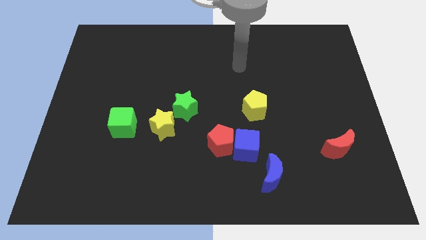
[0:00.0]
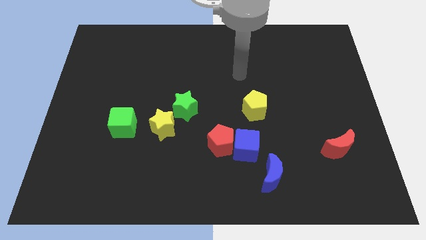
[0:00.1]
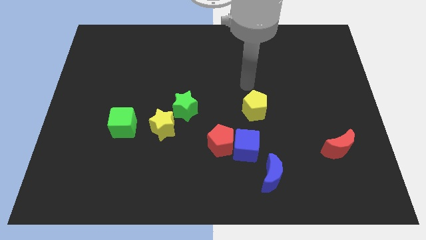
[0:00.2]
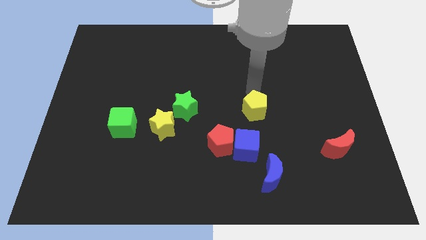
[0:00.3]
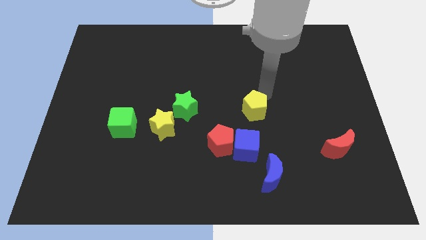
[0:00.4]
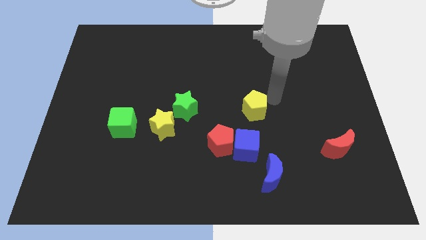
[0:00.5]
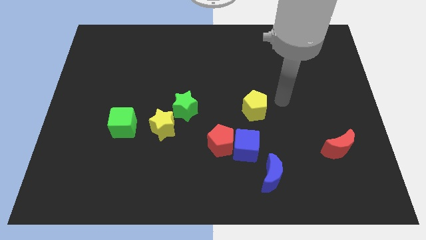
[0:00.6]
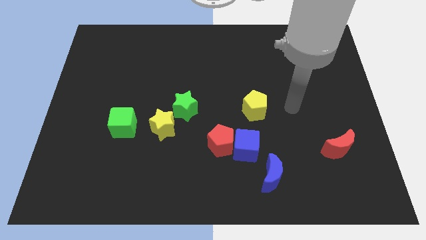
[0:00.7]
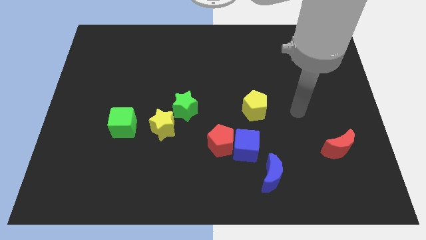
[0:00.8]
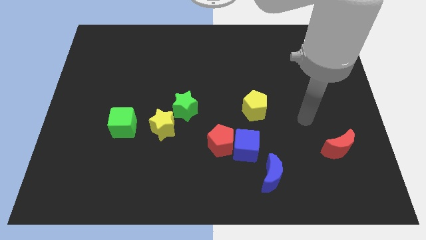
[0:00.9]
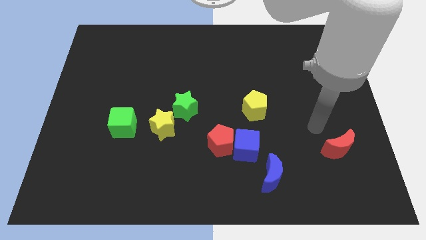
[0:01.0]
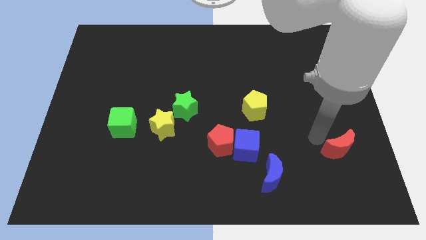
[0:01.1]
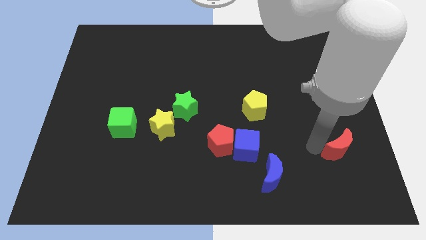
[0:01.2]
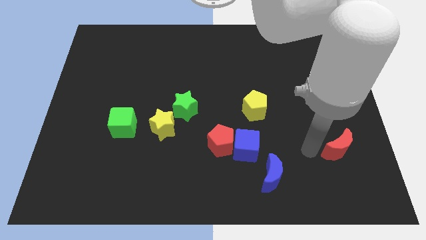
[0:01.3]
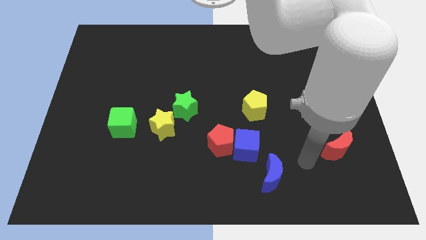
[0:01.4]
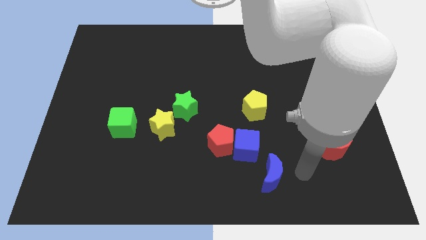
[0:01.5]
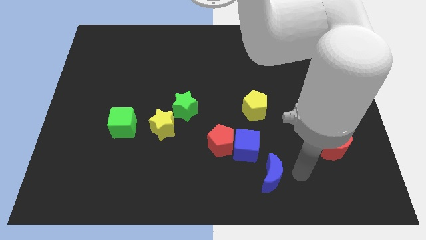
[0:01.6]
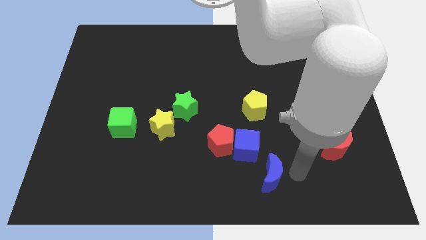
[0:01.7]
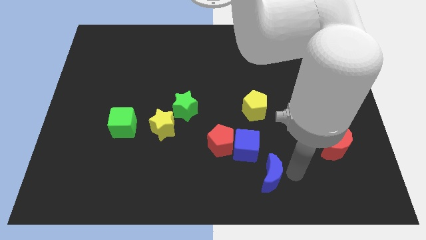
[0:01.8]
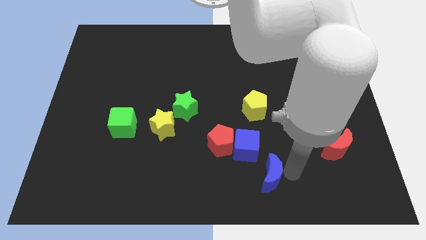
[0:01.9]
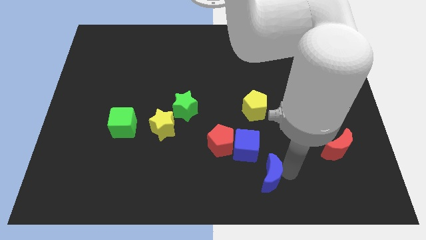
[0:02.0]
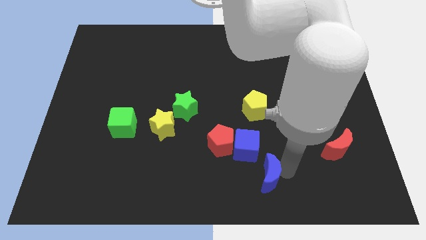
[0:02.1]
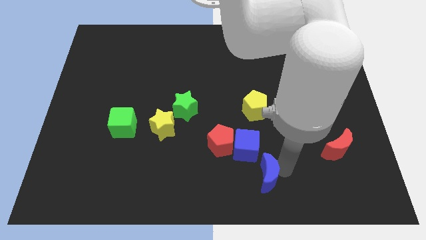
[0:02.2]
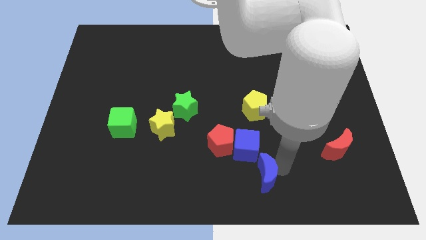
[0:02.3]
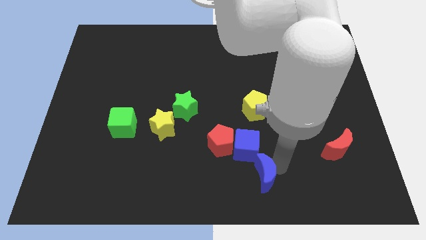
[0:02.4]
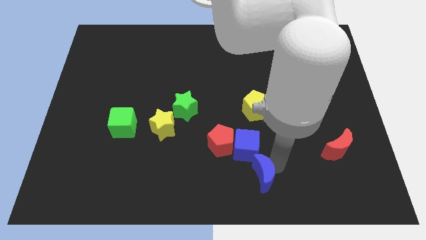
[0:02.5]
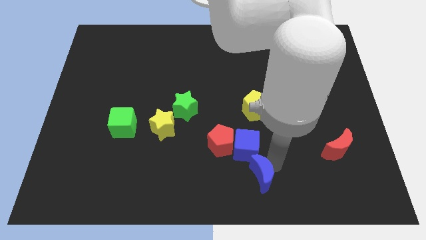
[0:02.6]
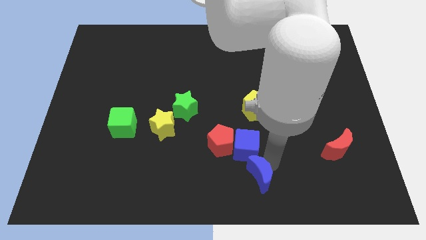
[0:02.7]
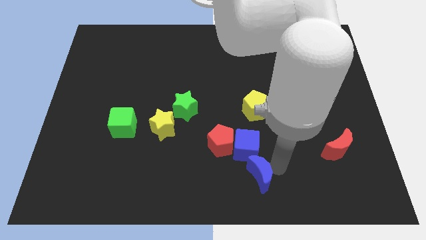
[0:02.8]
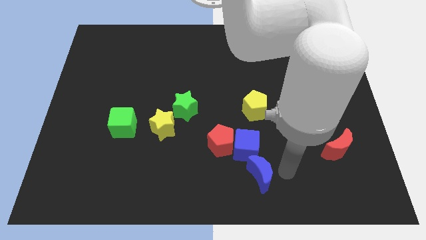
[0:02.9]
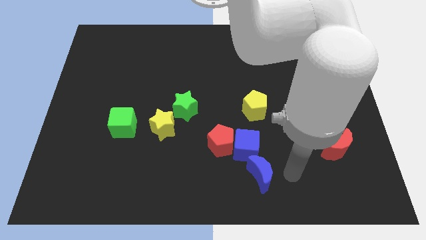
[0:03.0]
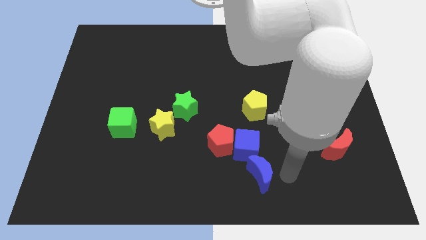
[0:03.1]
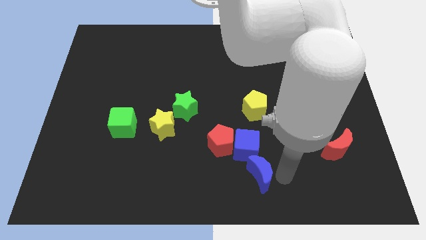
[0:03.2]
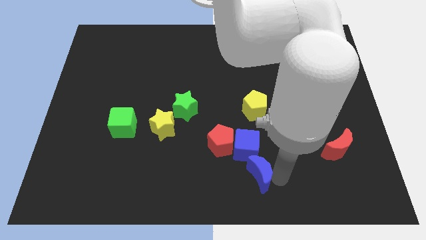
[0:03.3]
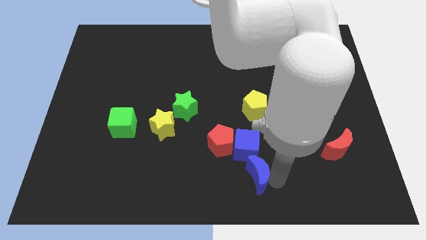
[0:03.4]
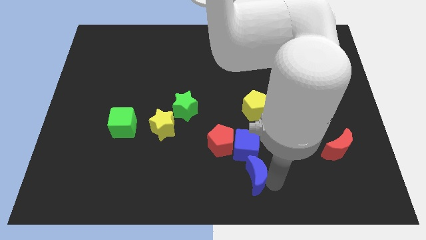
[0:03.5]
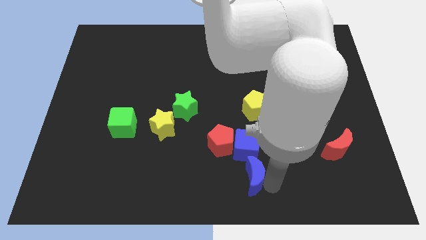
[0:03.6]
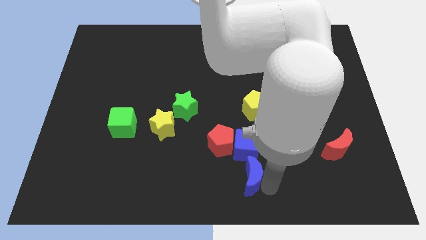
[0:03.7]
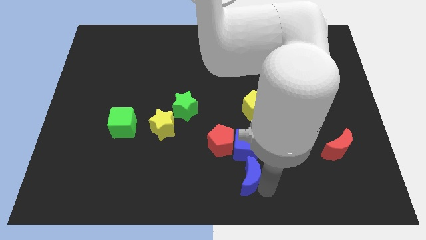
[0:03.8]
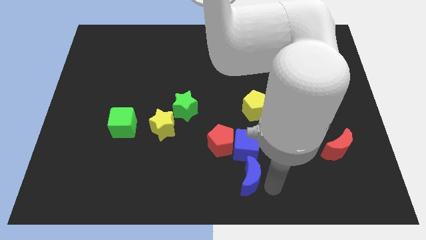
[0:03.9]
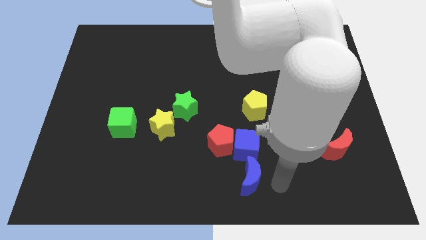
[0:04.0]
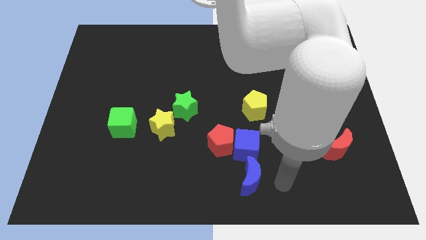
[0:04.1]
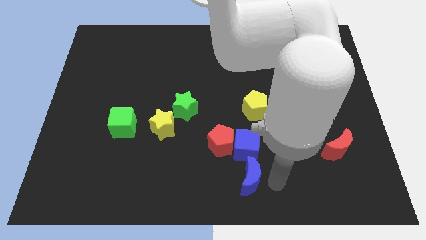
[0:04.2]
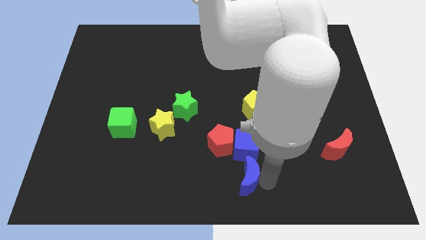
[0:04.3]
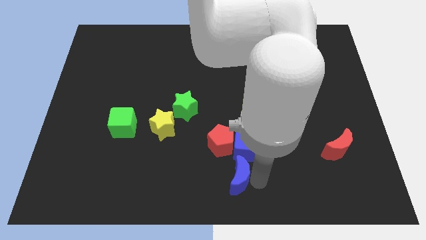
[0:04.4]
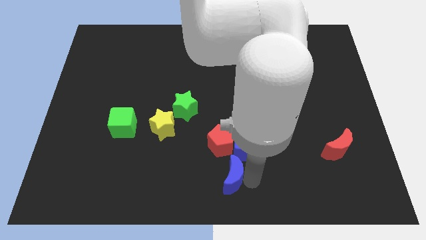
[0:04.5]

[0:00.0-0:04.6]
slide the blue moon to the left a bit

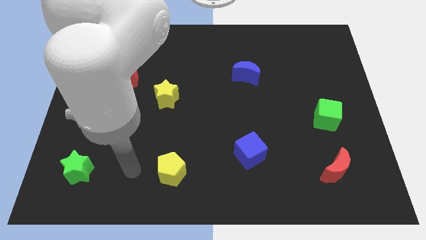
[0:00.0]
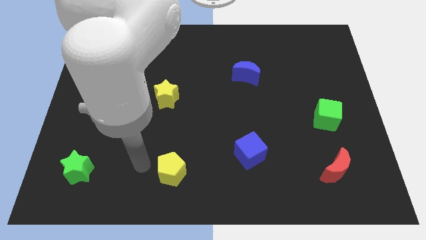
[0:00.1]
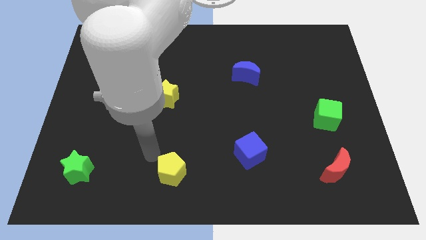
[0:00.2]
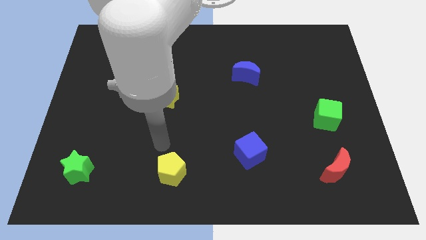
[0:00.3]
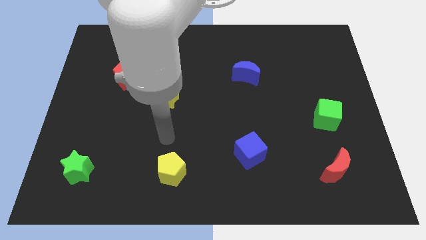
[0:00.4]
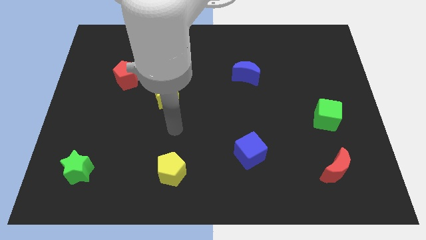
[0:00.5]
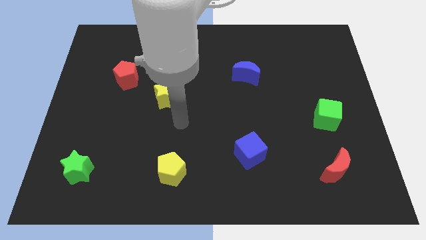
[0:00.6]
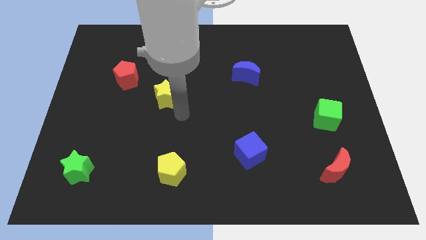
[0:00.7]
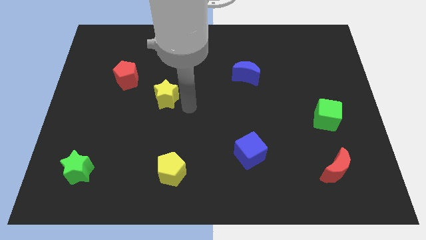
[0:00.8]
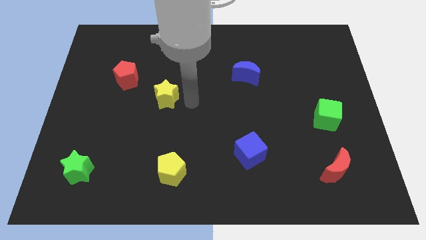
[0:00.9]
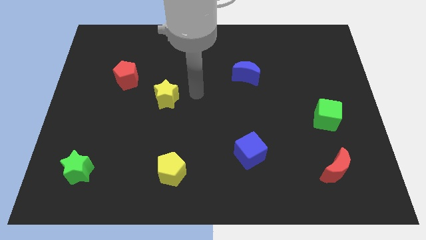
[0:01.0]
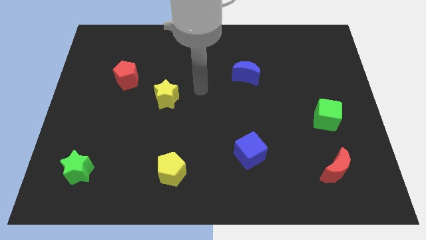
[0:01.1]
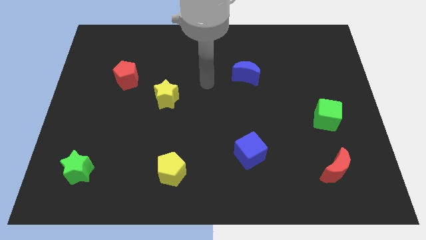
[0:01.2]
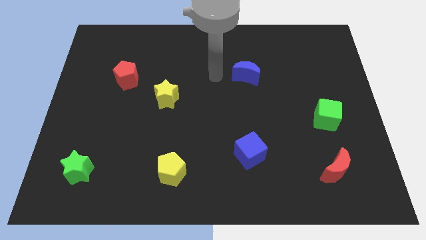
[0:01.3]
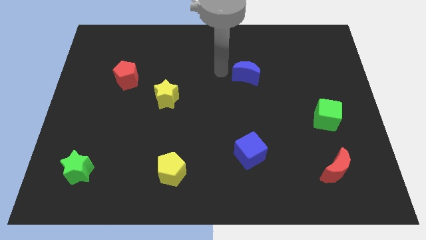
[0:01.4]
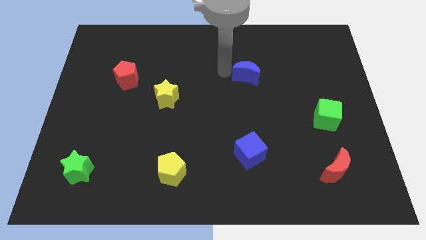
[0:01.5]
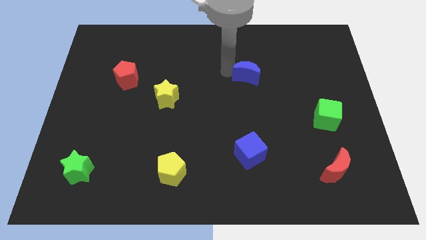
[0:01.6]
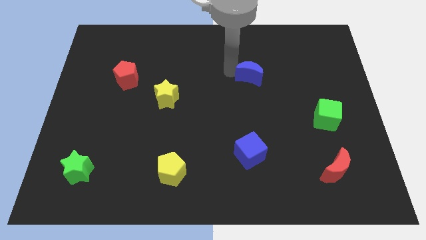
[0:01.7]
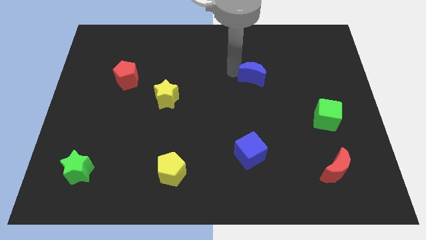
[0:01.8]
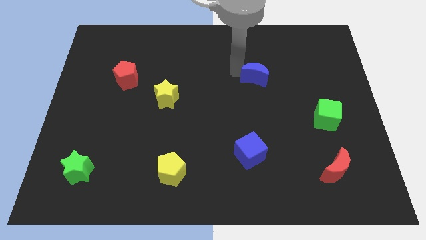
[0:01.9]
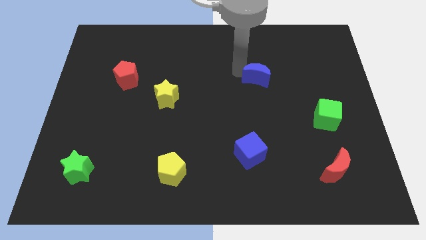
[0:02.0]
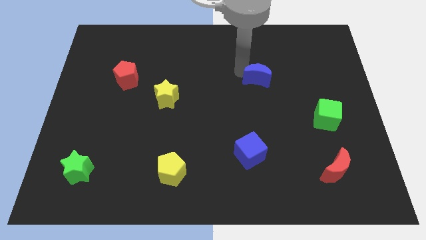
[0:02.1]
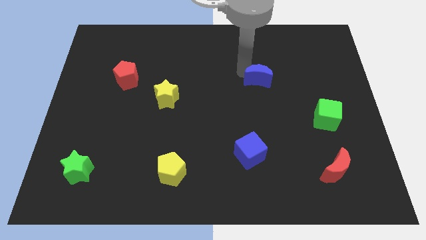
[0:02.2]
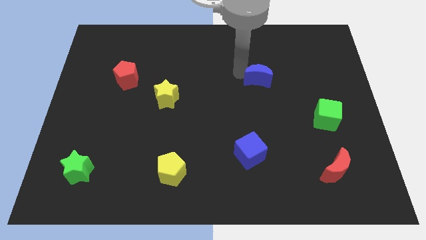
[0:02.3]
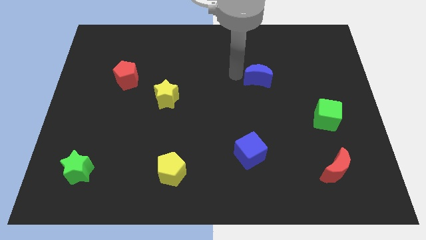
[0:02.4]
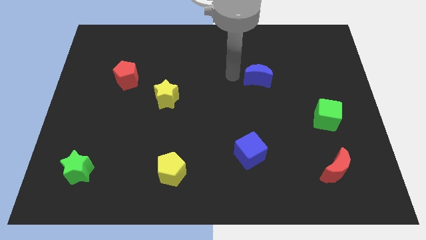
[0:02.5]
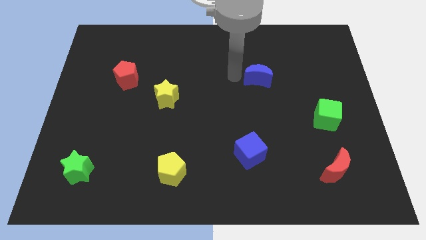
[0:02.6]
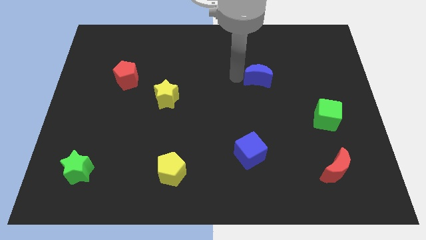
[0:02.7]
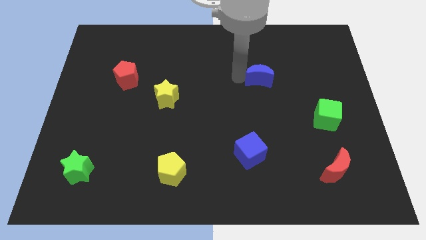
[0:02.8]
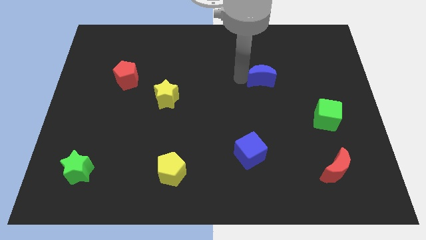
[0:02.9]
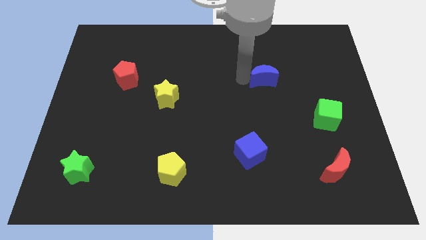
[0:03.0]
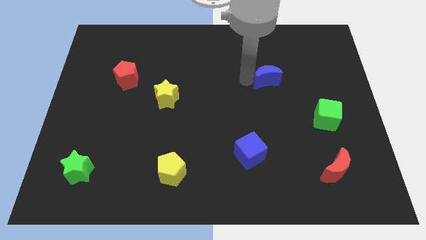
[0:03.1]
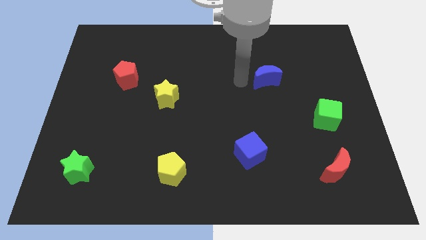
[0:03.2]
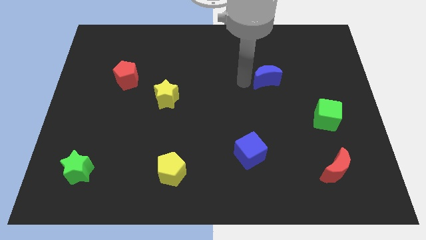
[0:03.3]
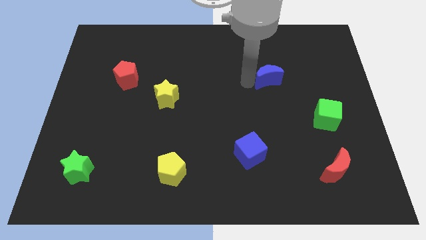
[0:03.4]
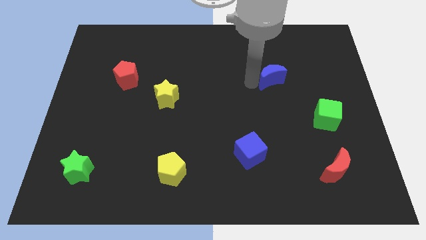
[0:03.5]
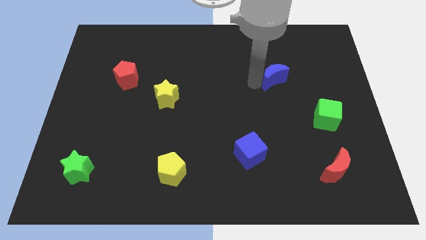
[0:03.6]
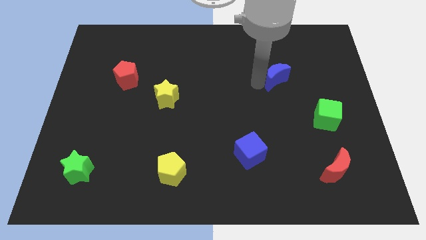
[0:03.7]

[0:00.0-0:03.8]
push the blue moon a little bit to the right
